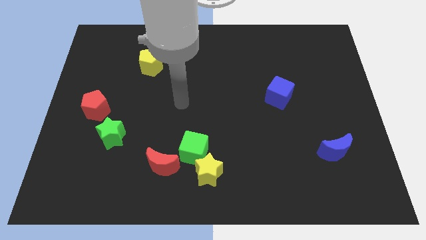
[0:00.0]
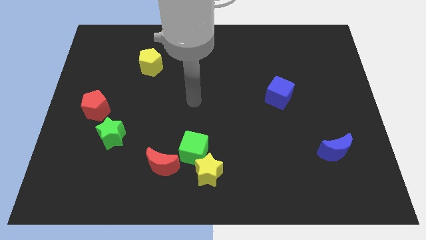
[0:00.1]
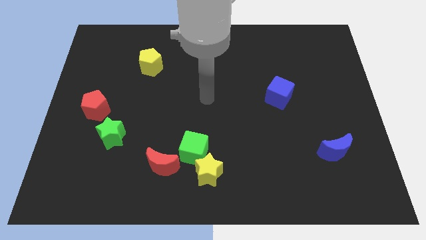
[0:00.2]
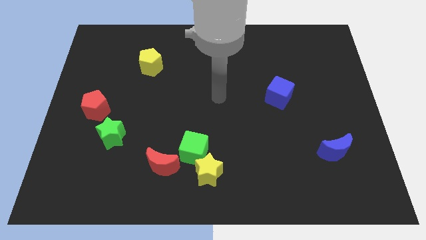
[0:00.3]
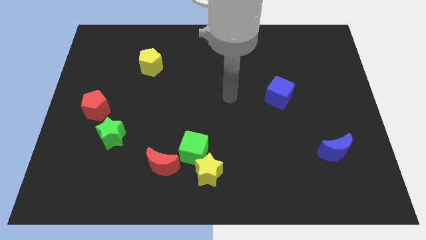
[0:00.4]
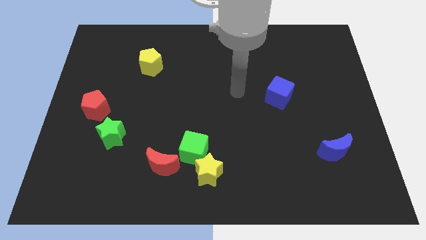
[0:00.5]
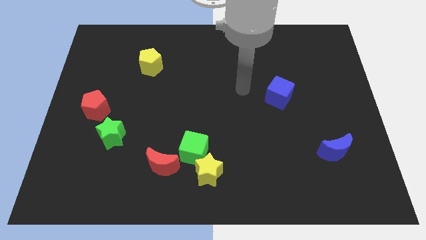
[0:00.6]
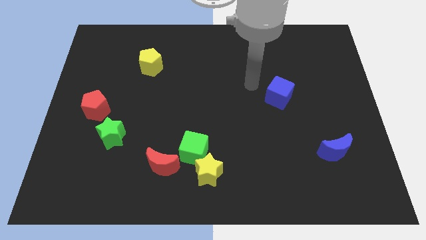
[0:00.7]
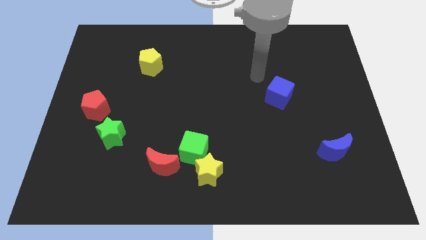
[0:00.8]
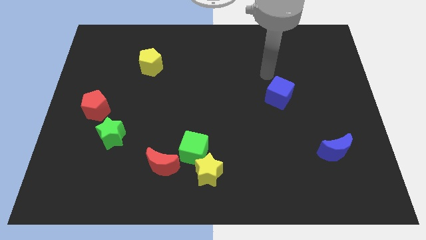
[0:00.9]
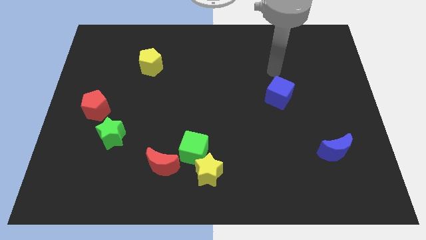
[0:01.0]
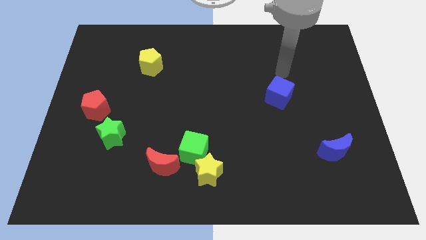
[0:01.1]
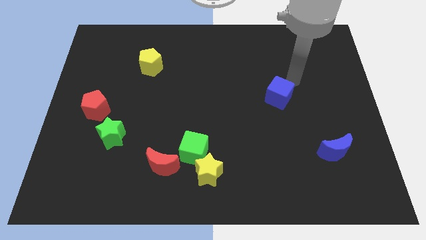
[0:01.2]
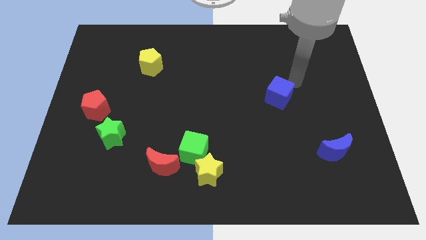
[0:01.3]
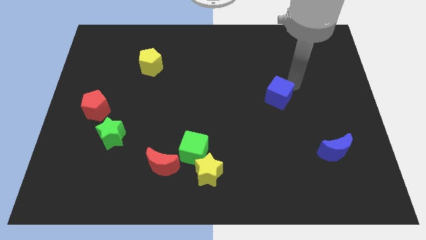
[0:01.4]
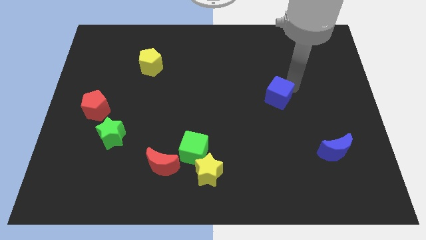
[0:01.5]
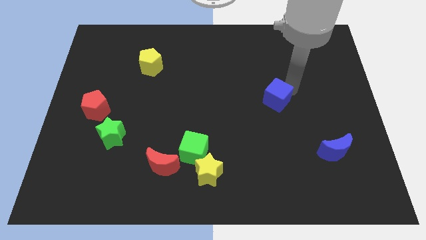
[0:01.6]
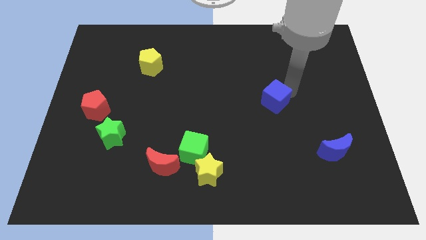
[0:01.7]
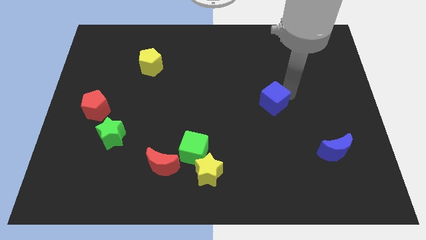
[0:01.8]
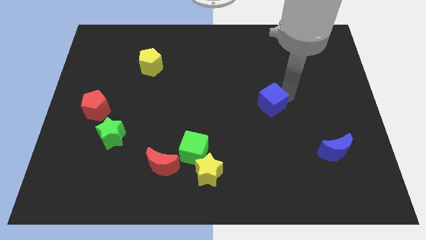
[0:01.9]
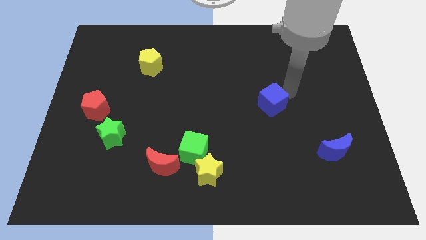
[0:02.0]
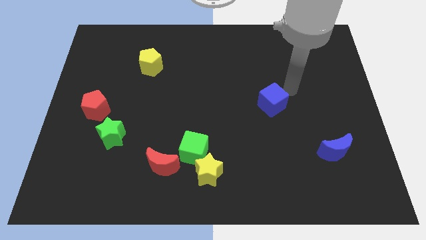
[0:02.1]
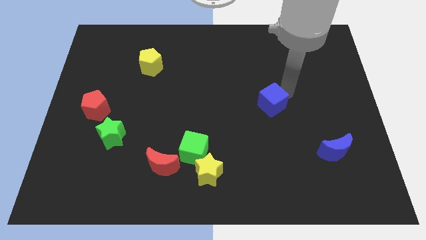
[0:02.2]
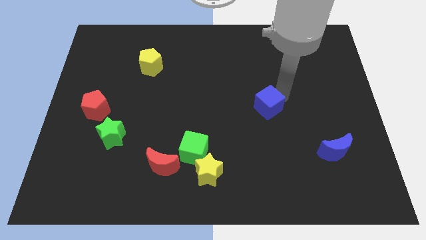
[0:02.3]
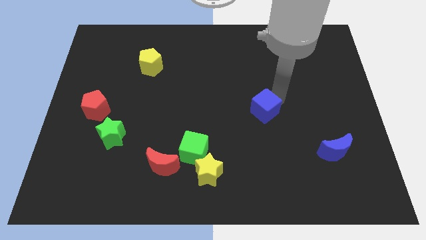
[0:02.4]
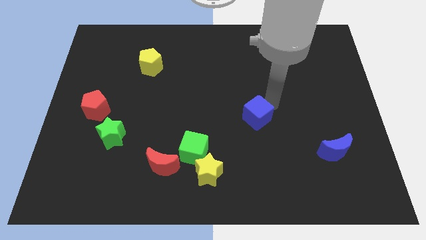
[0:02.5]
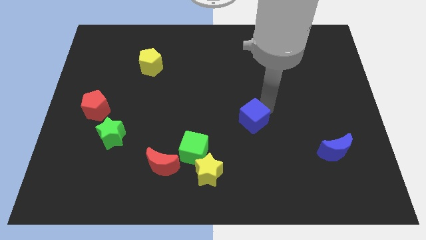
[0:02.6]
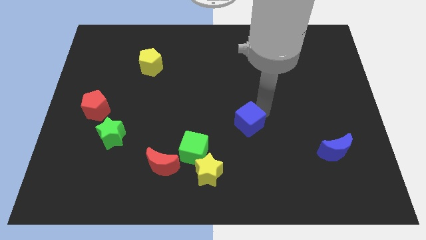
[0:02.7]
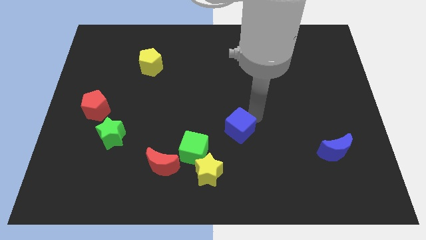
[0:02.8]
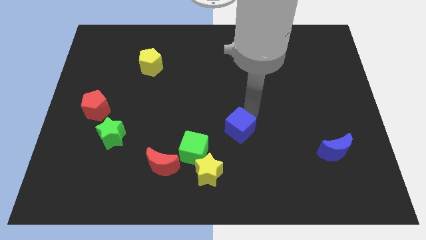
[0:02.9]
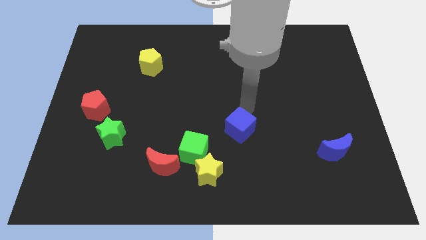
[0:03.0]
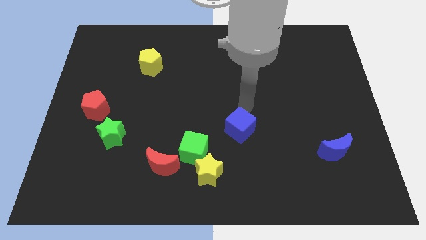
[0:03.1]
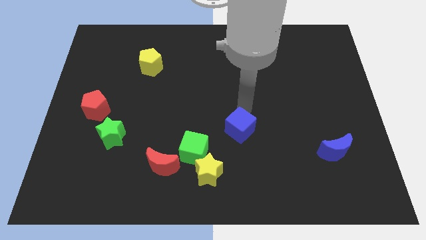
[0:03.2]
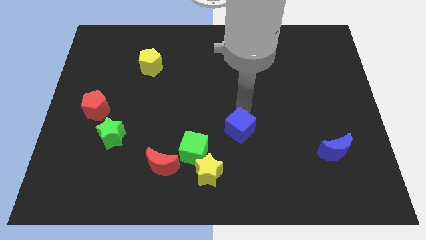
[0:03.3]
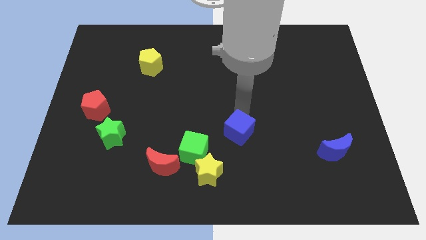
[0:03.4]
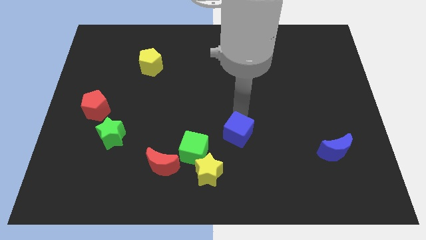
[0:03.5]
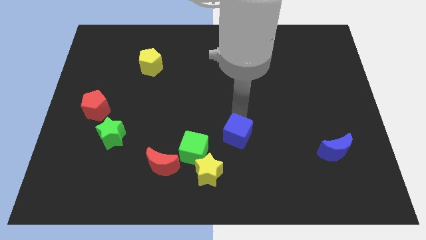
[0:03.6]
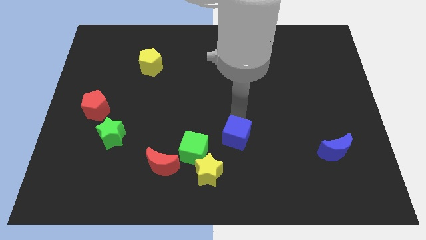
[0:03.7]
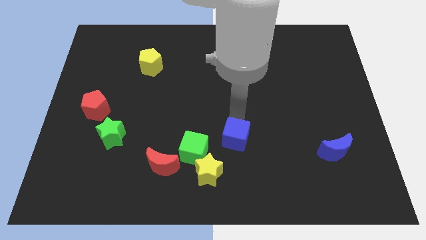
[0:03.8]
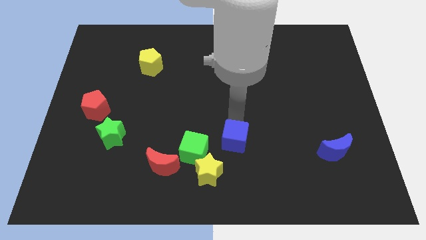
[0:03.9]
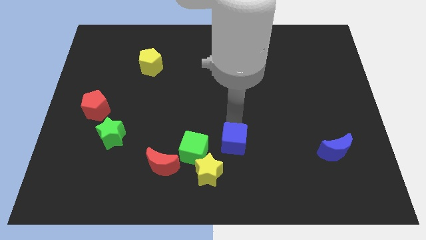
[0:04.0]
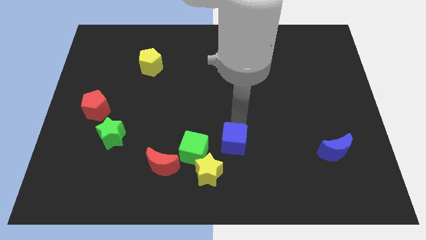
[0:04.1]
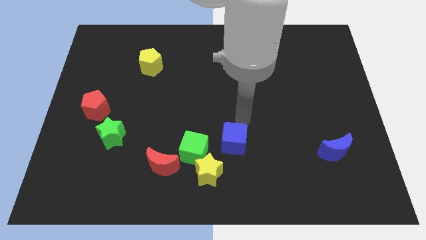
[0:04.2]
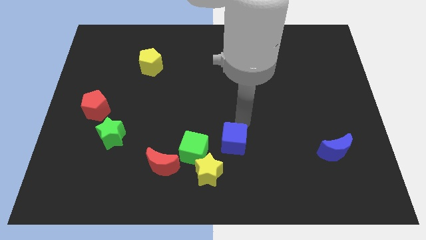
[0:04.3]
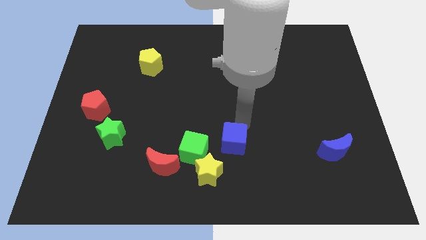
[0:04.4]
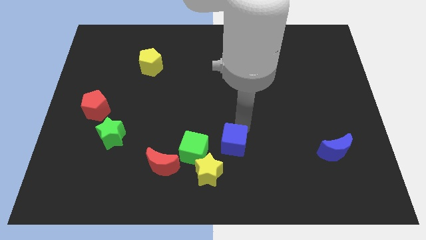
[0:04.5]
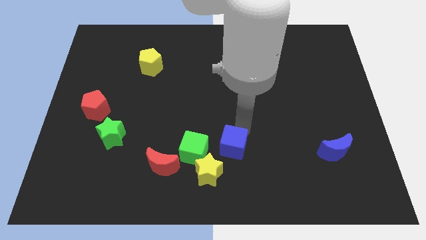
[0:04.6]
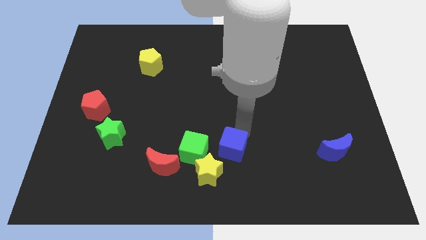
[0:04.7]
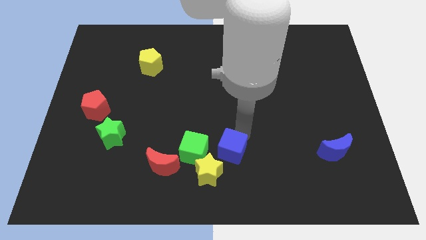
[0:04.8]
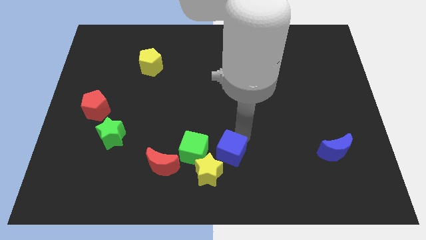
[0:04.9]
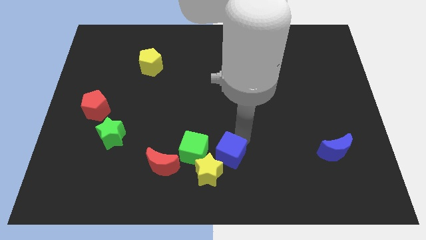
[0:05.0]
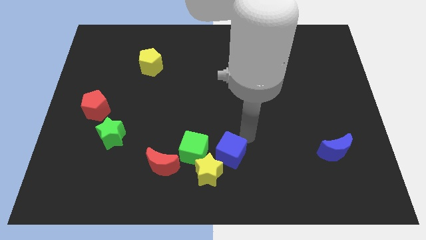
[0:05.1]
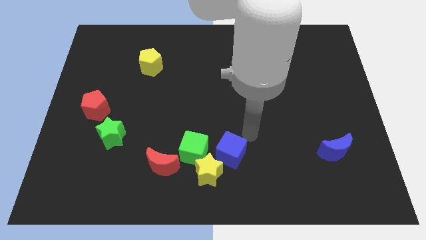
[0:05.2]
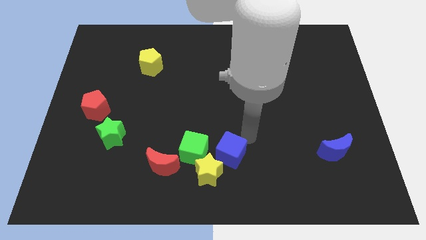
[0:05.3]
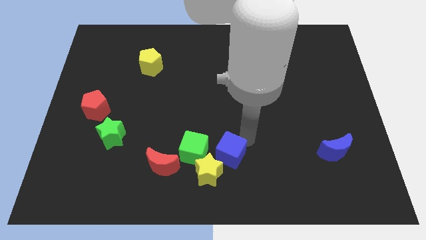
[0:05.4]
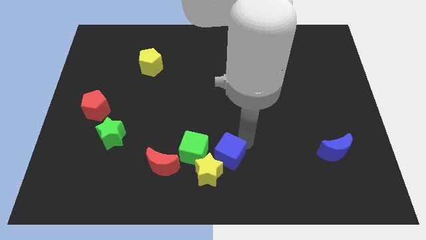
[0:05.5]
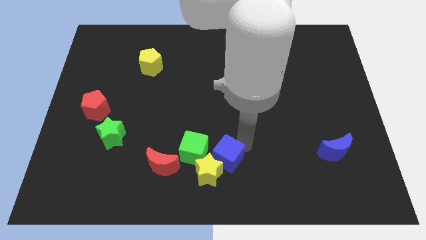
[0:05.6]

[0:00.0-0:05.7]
push the blue cube to the yellow star

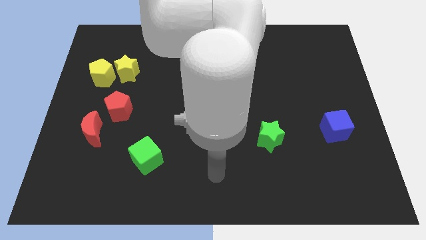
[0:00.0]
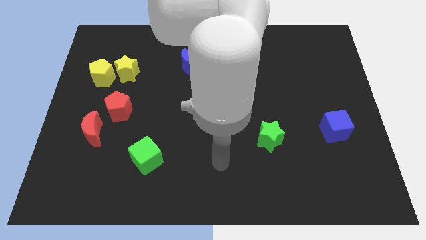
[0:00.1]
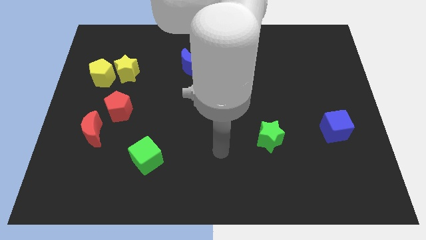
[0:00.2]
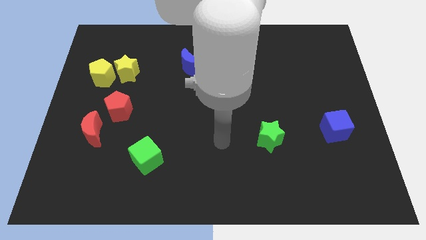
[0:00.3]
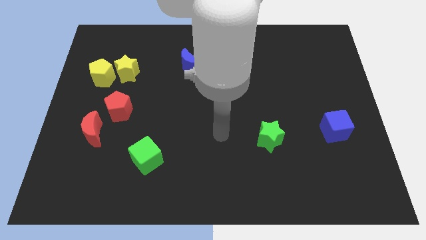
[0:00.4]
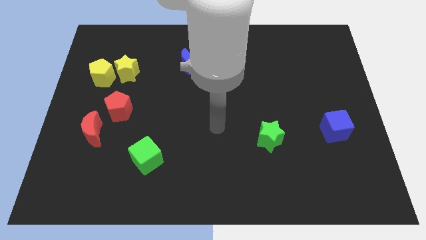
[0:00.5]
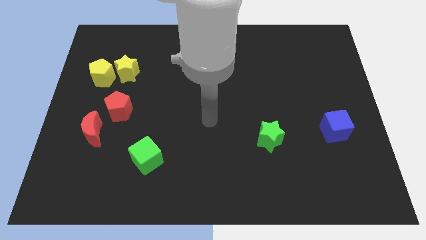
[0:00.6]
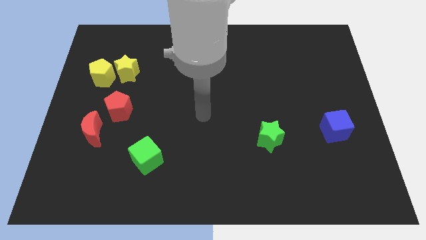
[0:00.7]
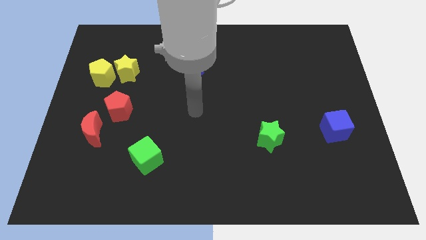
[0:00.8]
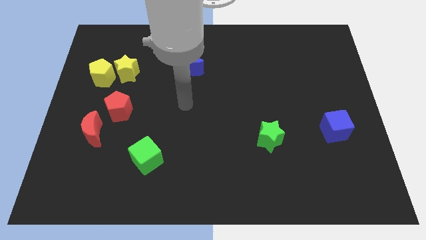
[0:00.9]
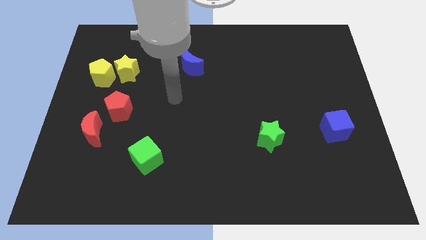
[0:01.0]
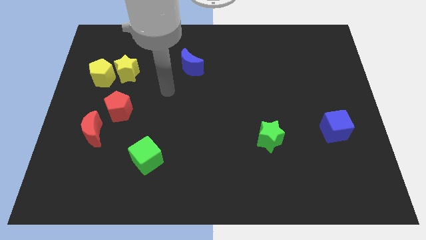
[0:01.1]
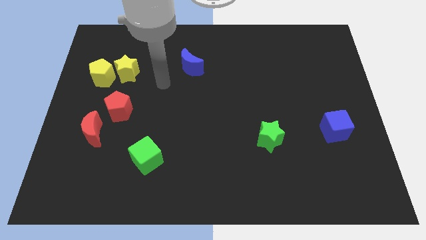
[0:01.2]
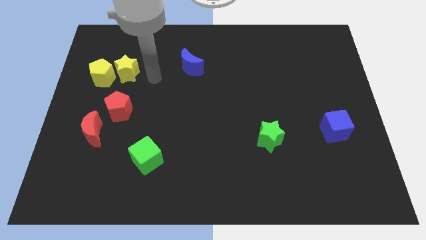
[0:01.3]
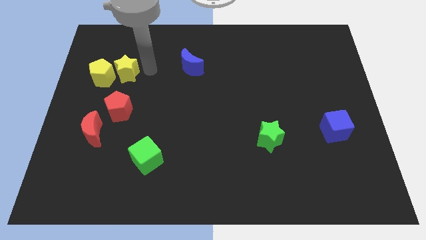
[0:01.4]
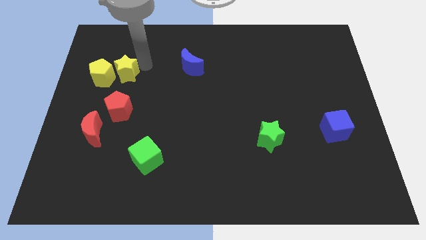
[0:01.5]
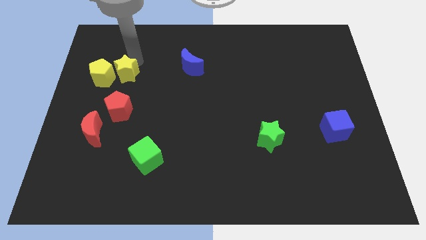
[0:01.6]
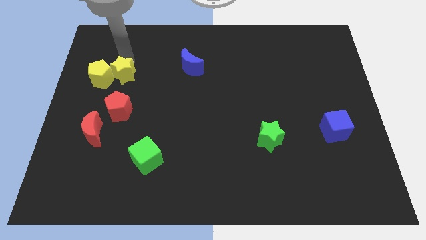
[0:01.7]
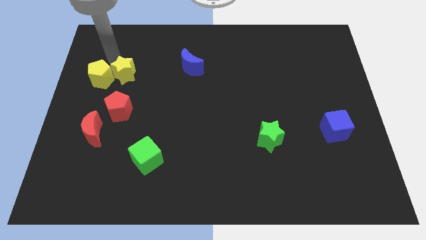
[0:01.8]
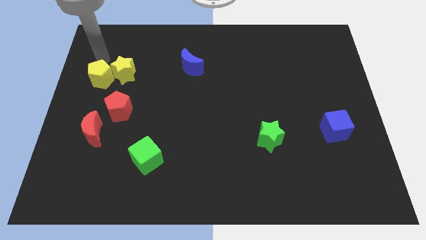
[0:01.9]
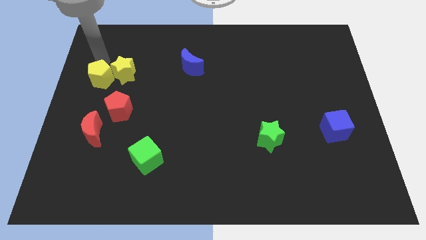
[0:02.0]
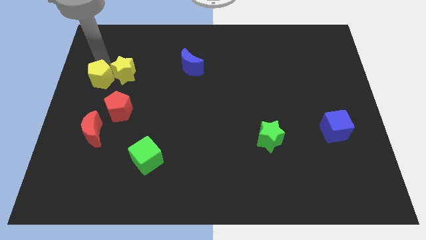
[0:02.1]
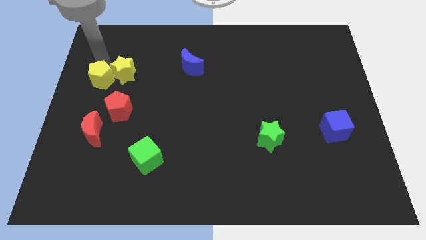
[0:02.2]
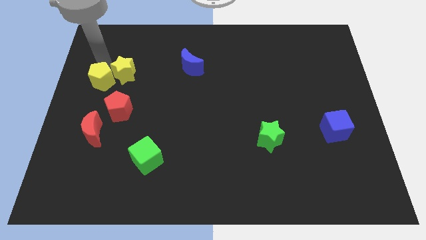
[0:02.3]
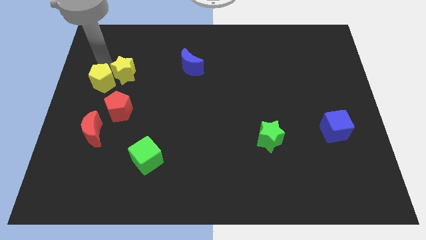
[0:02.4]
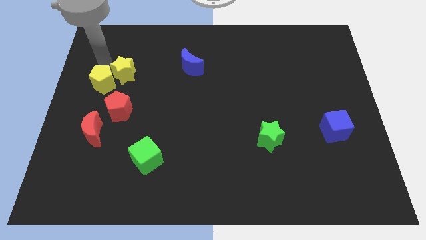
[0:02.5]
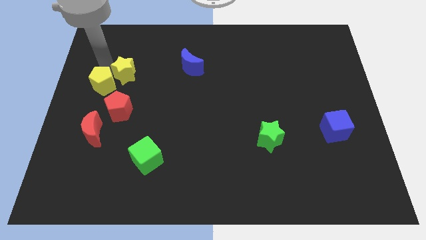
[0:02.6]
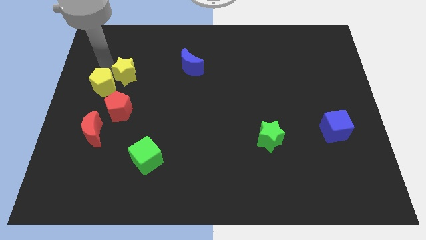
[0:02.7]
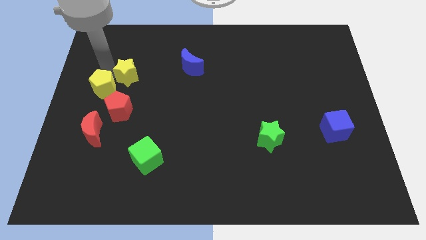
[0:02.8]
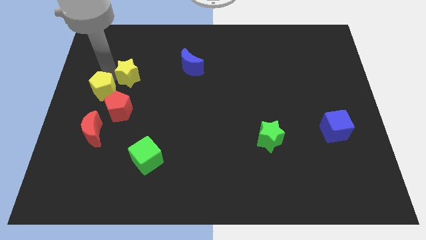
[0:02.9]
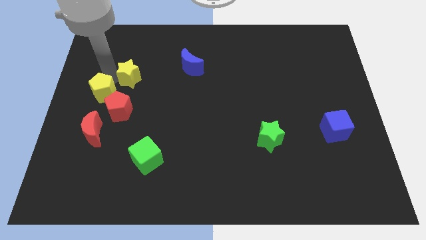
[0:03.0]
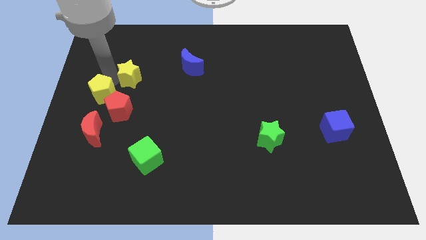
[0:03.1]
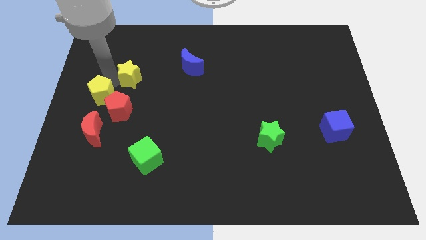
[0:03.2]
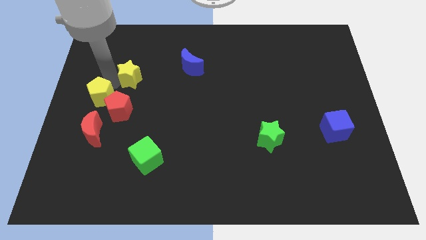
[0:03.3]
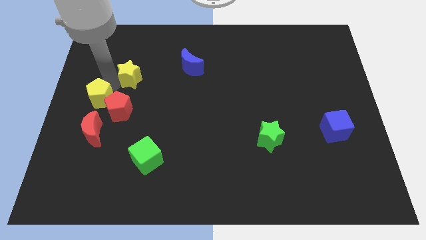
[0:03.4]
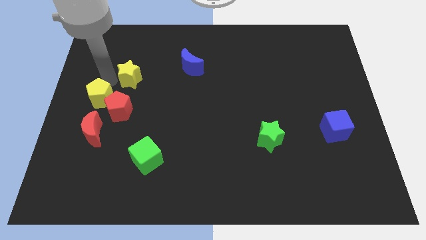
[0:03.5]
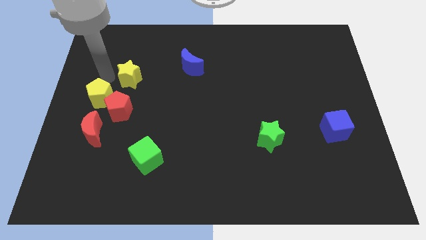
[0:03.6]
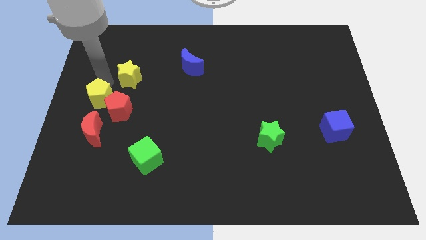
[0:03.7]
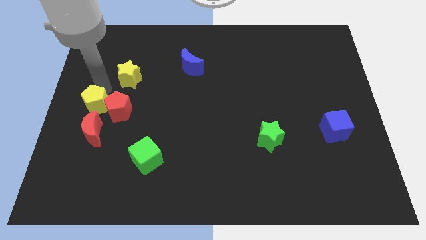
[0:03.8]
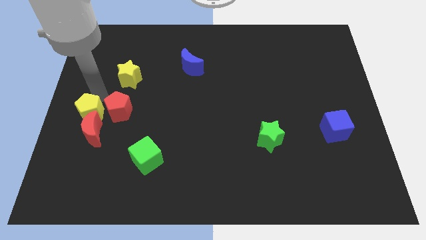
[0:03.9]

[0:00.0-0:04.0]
move the yellow pentagon close to the red moon
